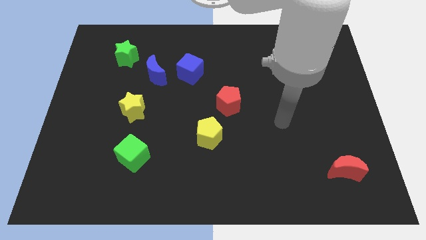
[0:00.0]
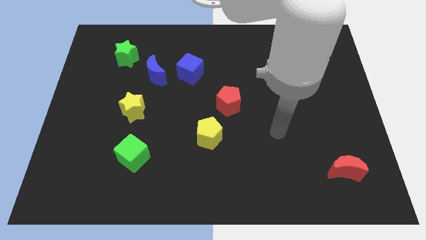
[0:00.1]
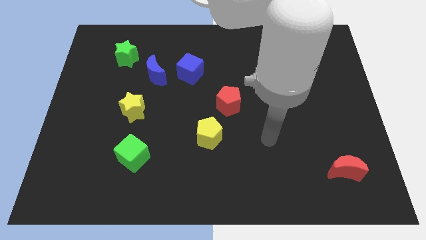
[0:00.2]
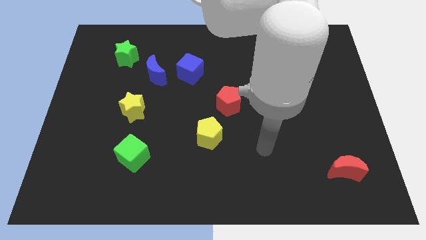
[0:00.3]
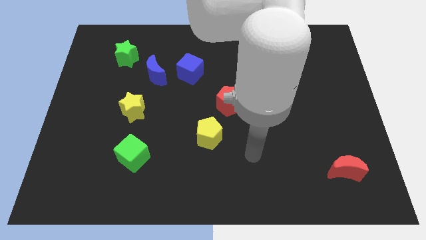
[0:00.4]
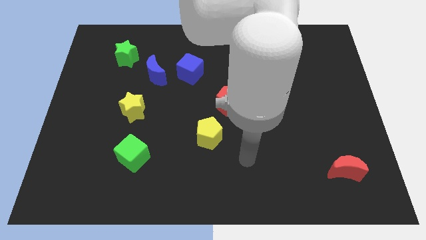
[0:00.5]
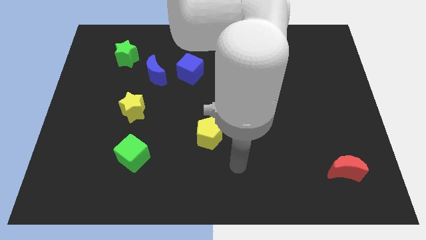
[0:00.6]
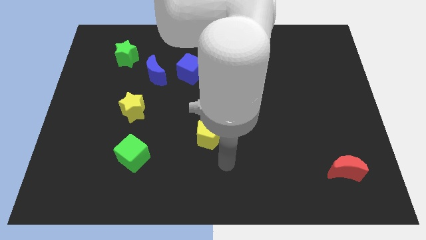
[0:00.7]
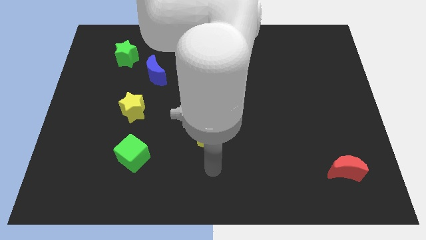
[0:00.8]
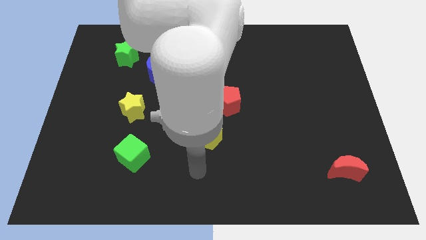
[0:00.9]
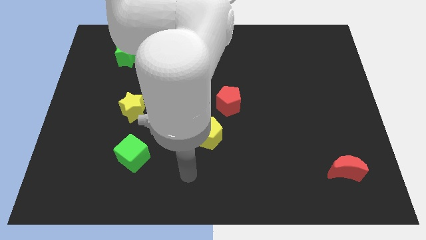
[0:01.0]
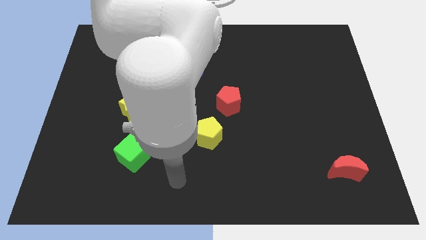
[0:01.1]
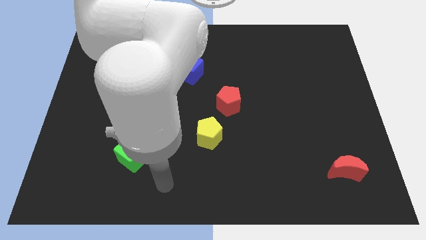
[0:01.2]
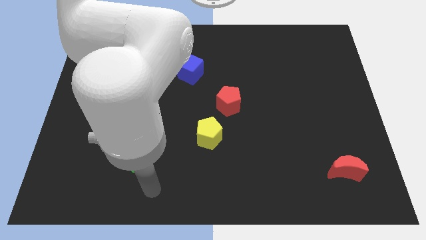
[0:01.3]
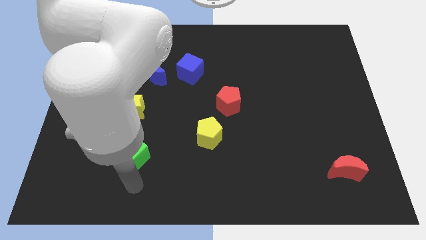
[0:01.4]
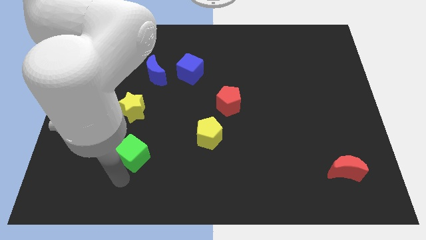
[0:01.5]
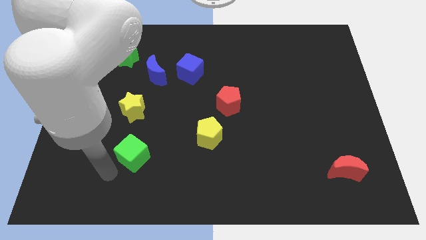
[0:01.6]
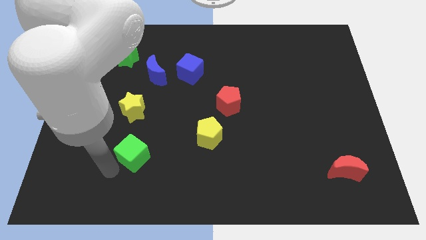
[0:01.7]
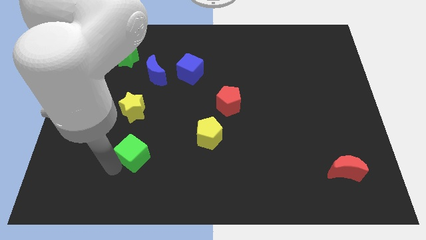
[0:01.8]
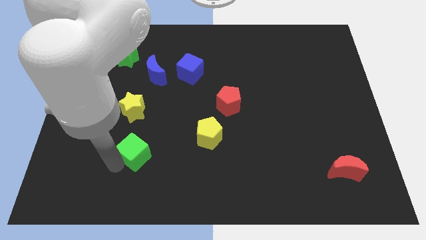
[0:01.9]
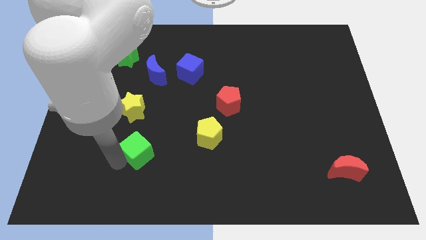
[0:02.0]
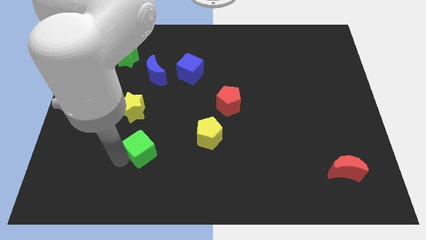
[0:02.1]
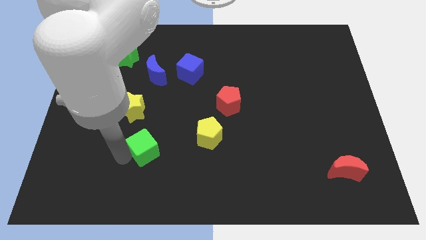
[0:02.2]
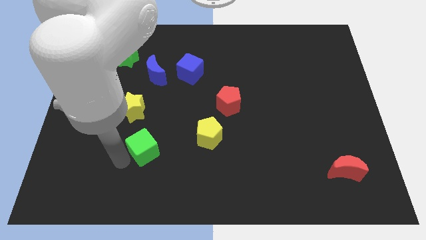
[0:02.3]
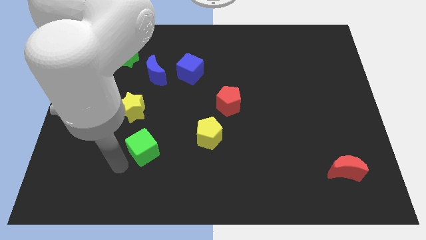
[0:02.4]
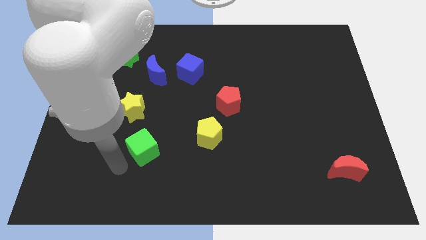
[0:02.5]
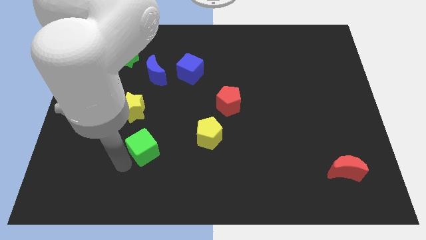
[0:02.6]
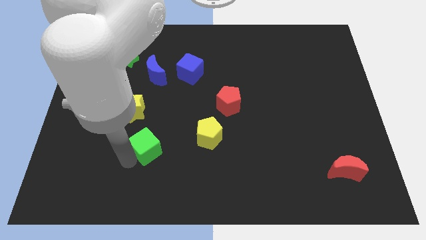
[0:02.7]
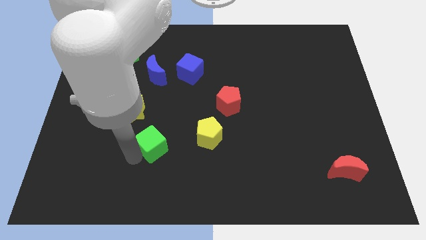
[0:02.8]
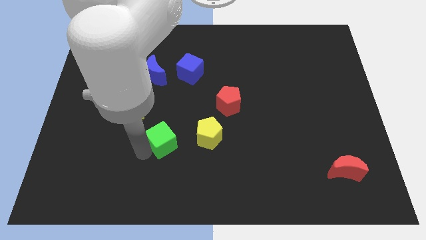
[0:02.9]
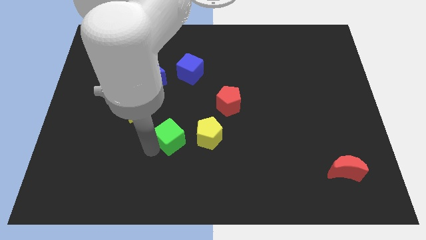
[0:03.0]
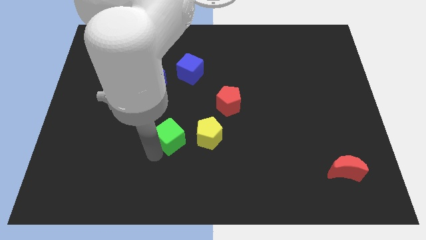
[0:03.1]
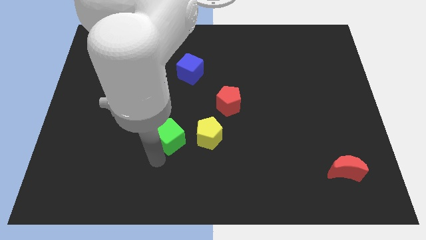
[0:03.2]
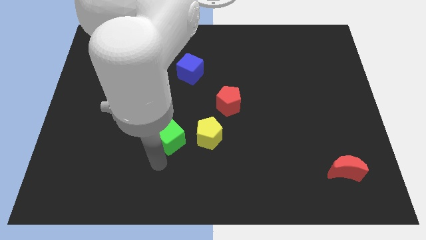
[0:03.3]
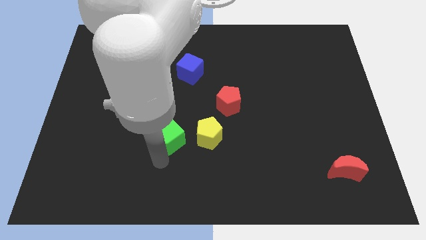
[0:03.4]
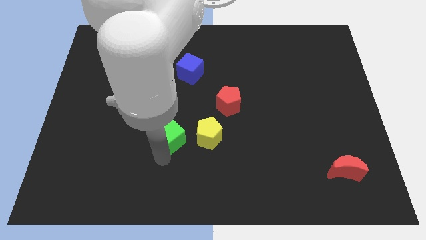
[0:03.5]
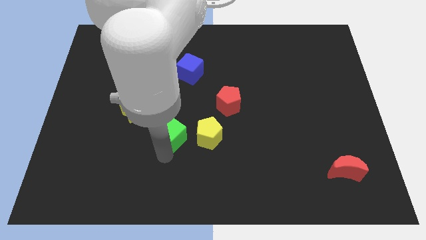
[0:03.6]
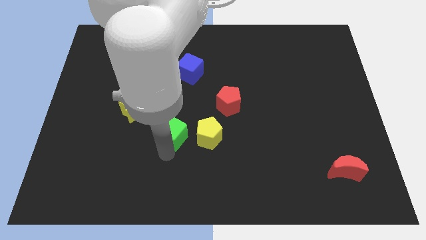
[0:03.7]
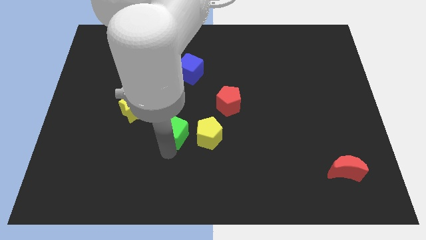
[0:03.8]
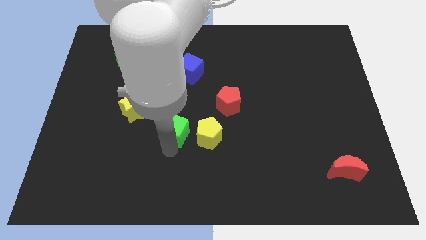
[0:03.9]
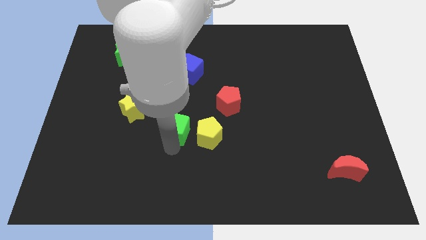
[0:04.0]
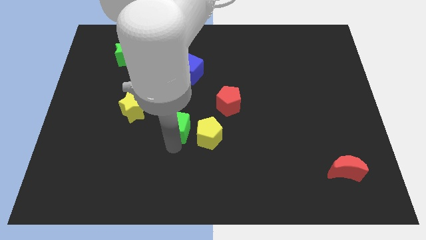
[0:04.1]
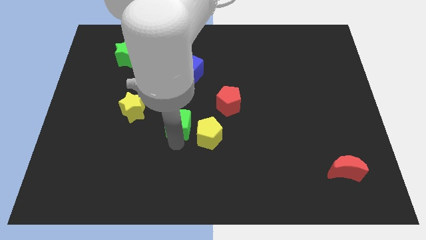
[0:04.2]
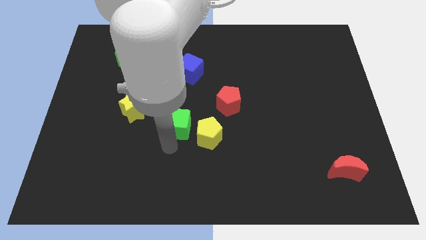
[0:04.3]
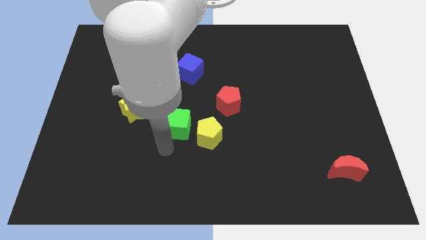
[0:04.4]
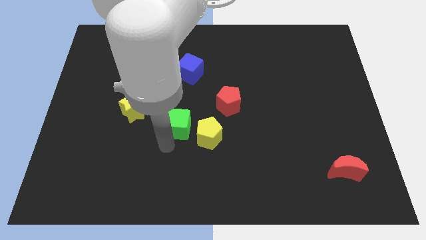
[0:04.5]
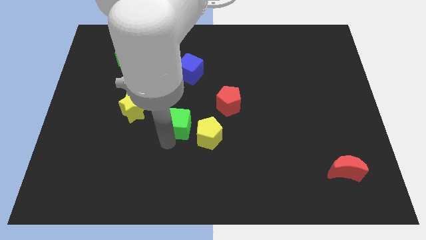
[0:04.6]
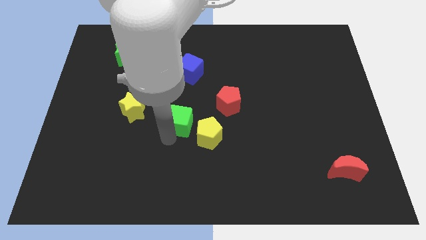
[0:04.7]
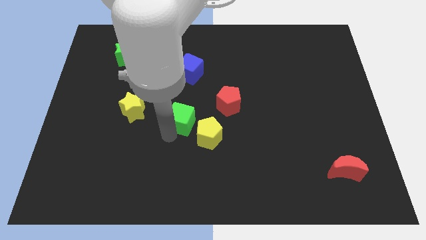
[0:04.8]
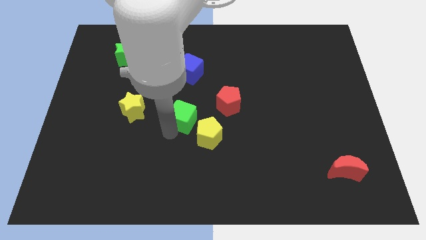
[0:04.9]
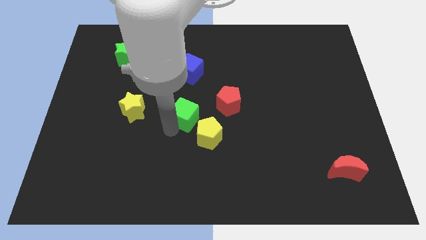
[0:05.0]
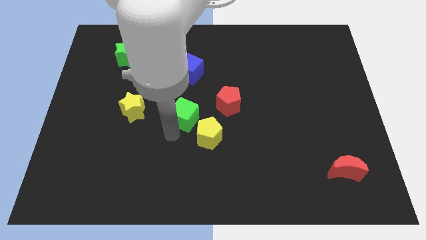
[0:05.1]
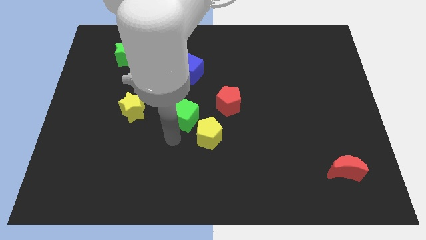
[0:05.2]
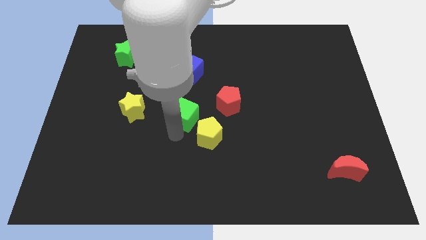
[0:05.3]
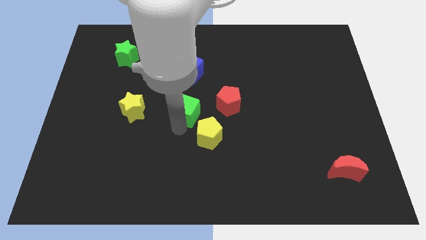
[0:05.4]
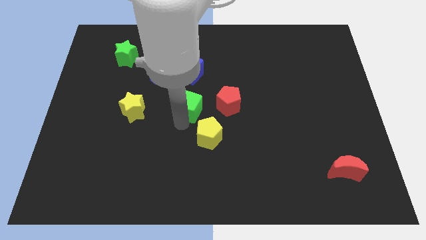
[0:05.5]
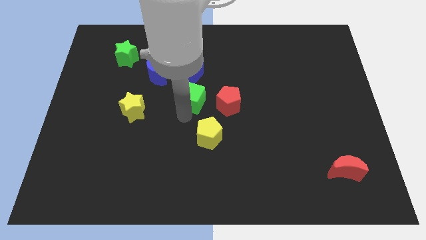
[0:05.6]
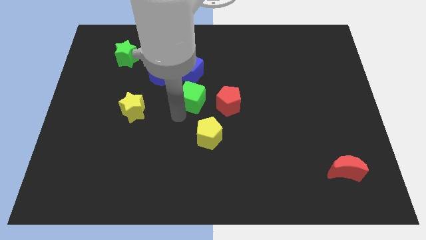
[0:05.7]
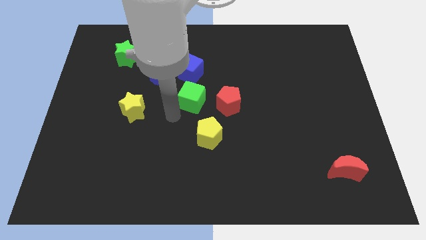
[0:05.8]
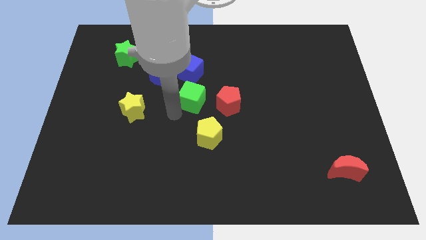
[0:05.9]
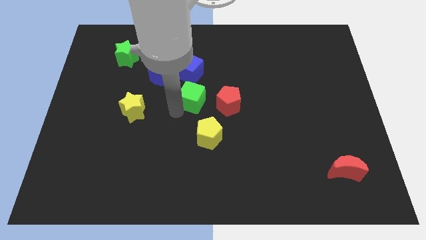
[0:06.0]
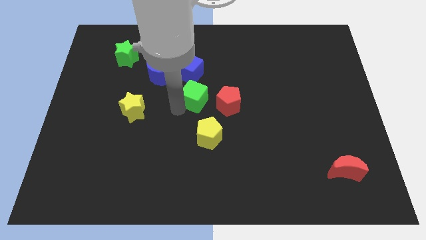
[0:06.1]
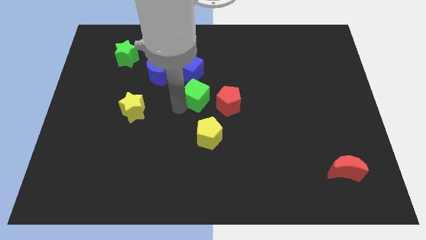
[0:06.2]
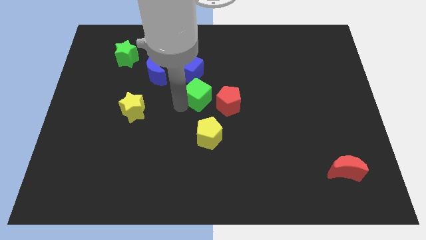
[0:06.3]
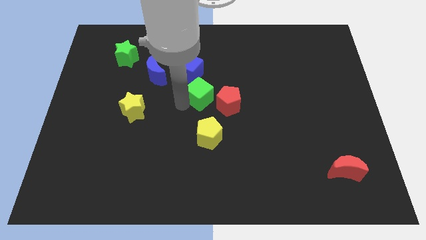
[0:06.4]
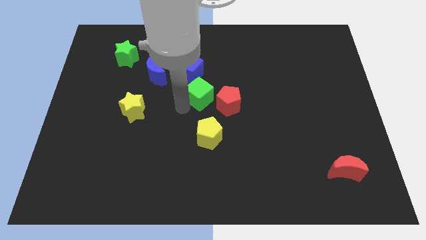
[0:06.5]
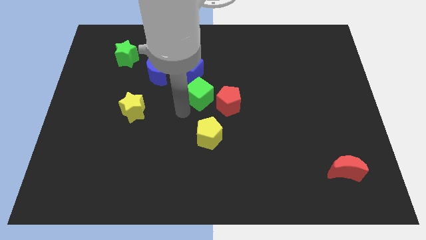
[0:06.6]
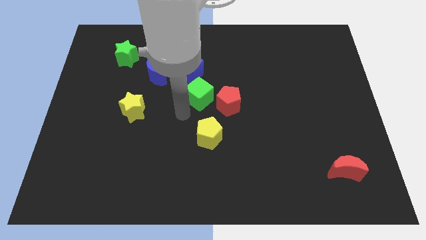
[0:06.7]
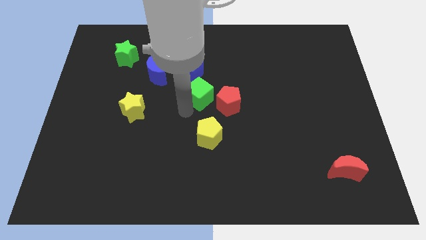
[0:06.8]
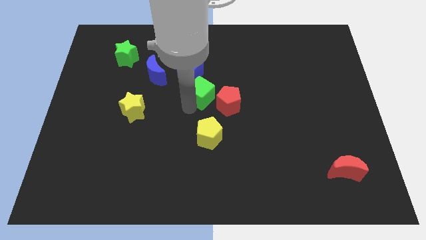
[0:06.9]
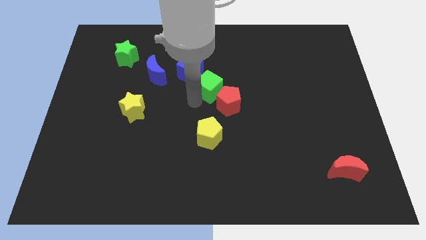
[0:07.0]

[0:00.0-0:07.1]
move the green cube to the top side of the red pentagon
